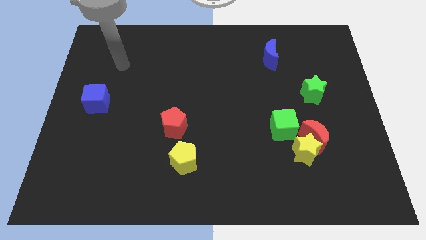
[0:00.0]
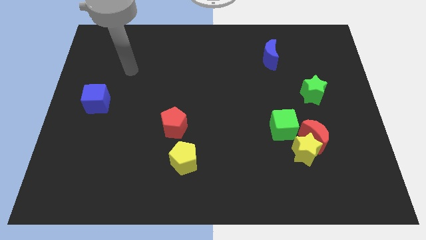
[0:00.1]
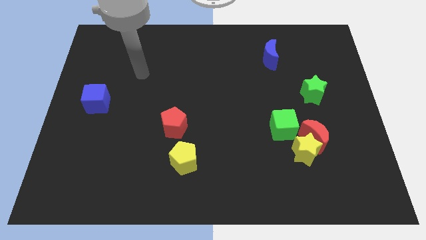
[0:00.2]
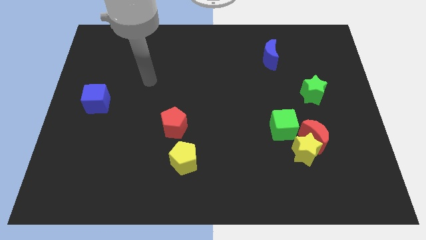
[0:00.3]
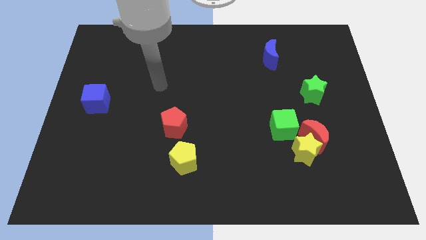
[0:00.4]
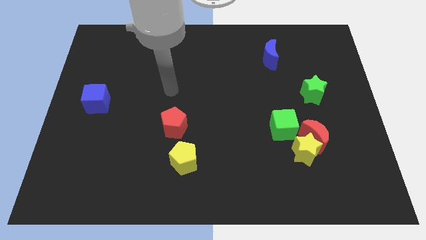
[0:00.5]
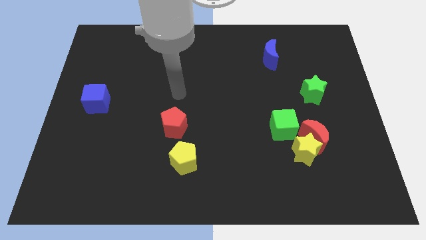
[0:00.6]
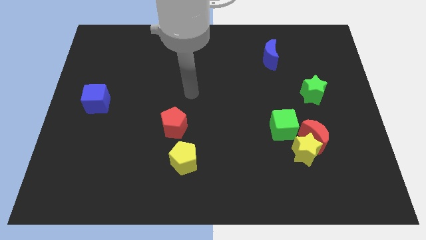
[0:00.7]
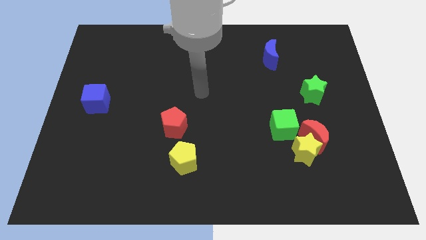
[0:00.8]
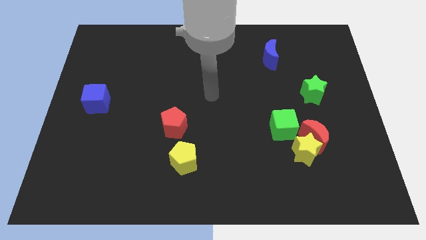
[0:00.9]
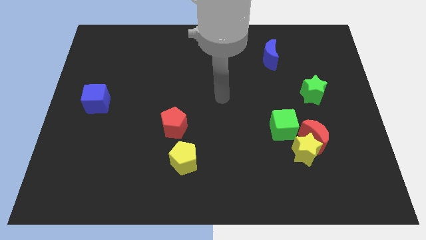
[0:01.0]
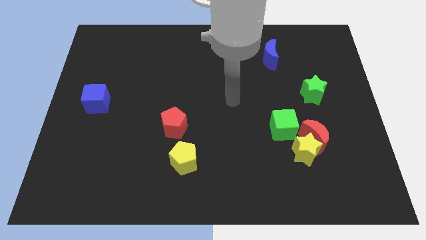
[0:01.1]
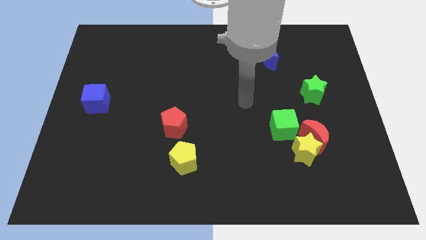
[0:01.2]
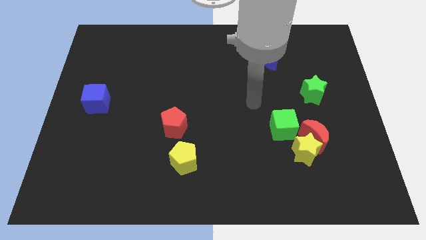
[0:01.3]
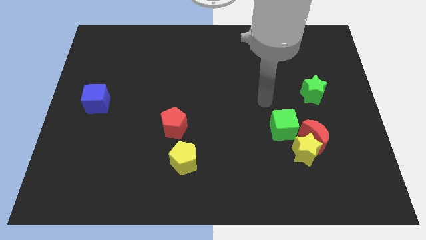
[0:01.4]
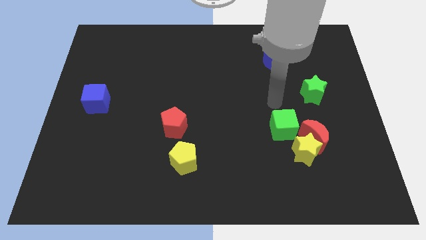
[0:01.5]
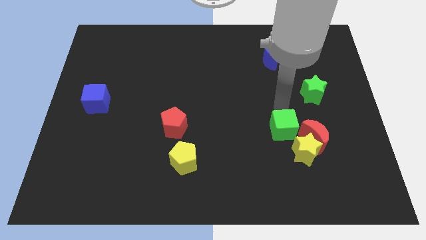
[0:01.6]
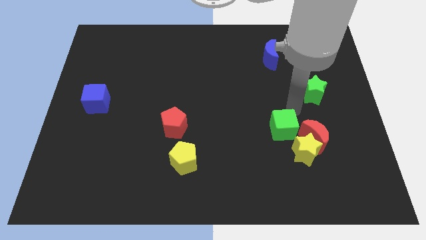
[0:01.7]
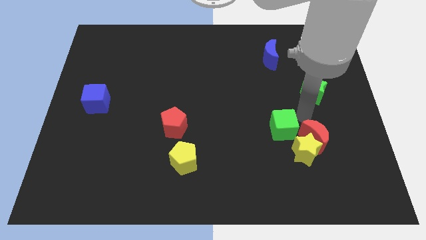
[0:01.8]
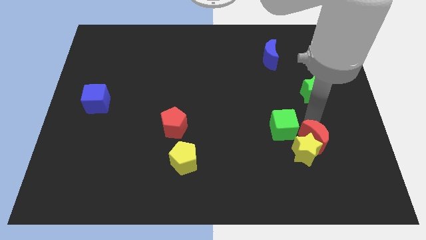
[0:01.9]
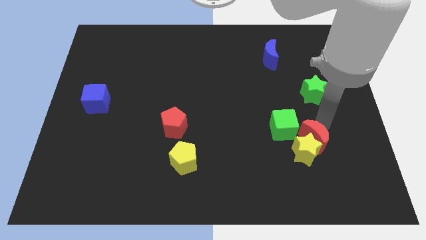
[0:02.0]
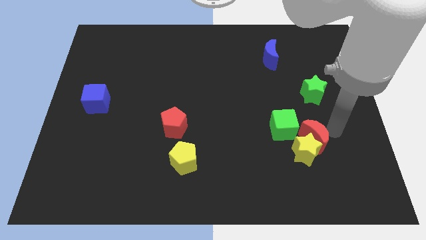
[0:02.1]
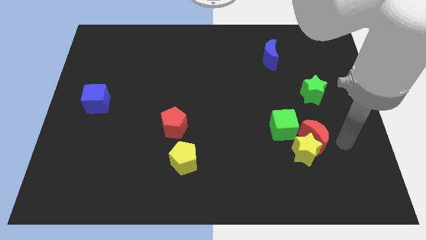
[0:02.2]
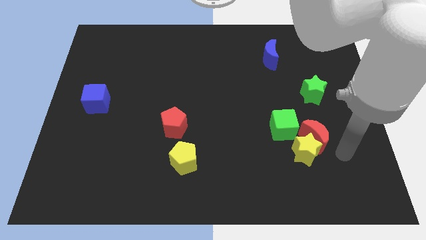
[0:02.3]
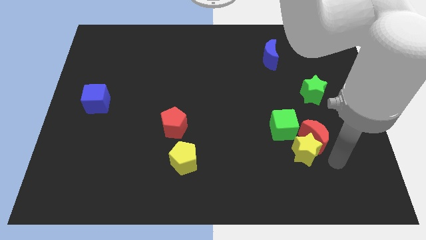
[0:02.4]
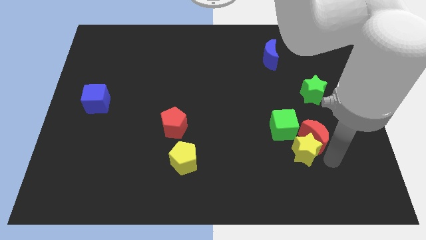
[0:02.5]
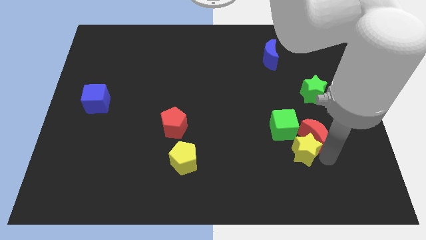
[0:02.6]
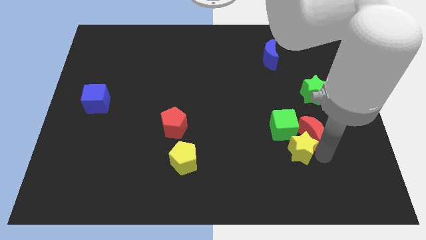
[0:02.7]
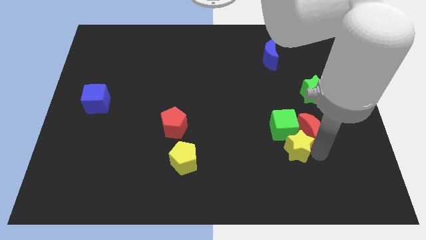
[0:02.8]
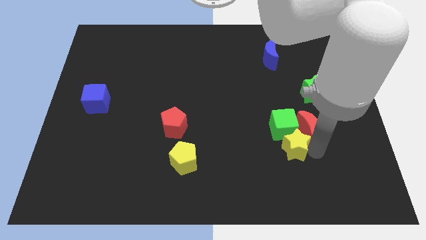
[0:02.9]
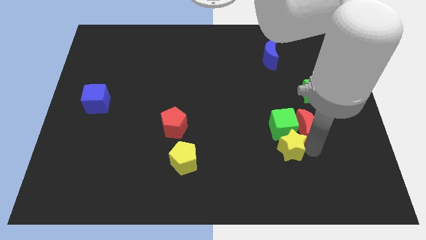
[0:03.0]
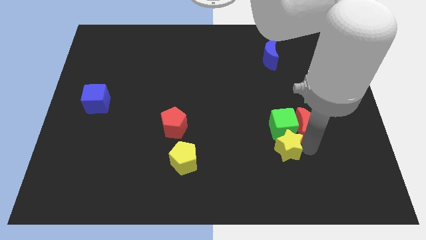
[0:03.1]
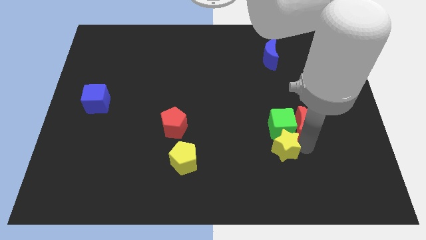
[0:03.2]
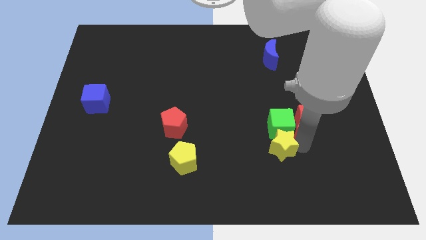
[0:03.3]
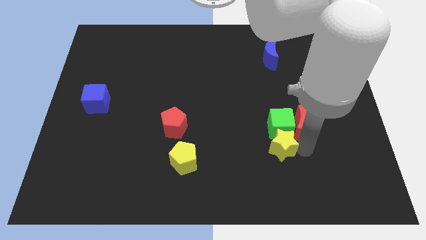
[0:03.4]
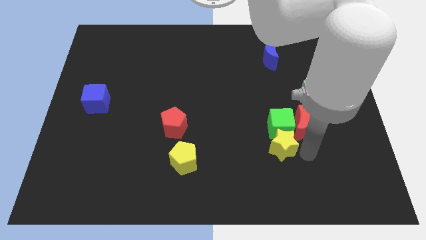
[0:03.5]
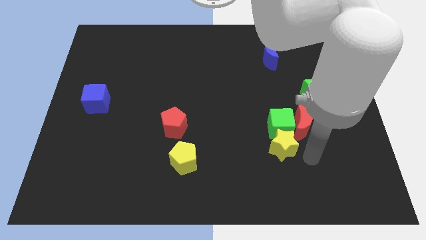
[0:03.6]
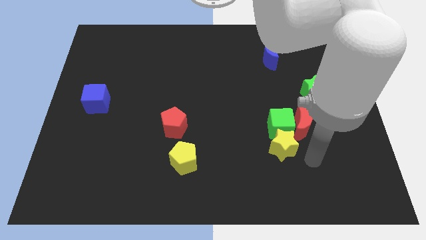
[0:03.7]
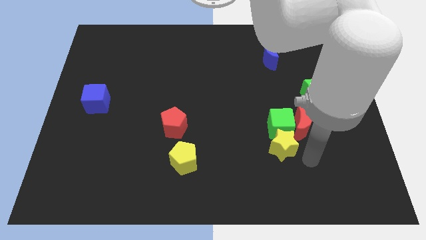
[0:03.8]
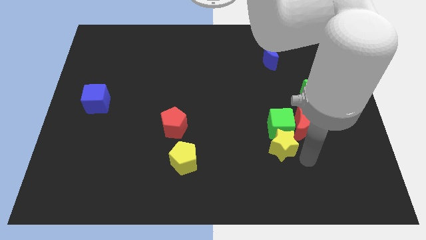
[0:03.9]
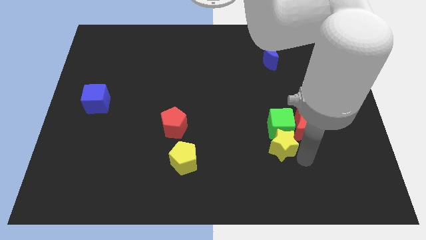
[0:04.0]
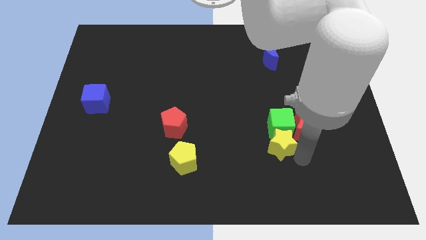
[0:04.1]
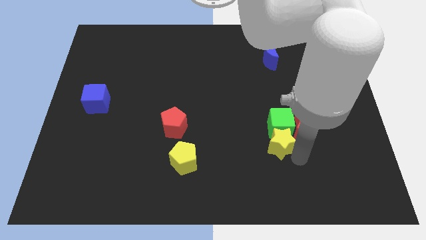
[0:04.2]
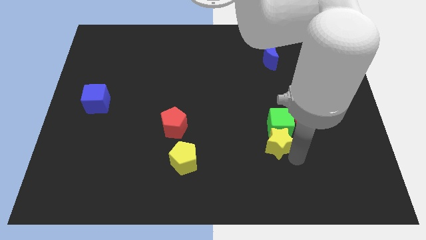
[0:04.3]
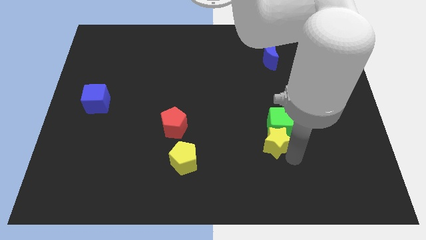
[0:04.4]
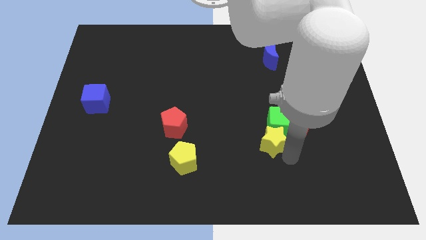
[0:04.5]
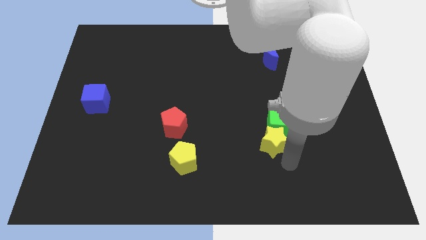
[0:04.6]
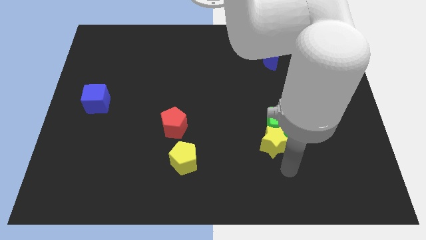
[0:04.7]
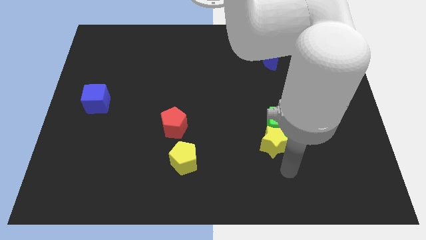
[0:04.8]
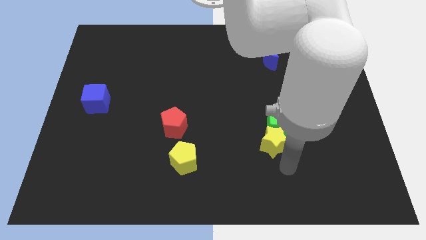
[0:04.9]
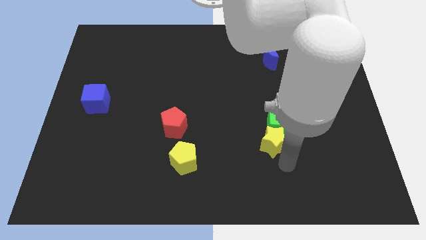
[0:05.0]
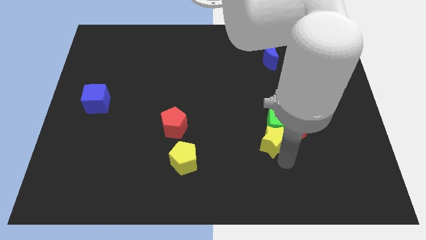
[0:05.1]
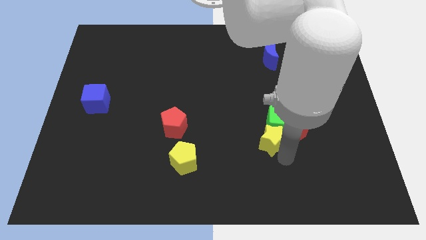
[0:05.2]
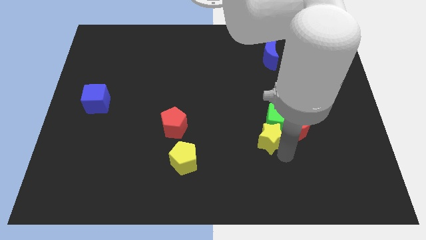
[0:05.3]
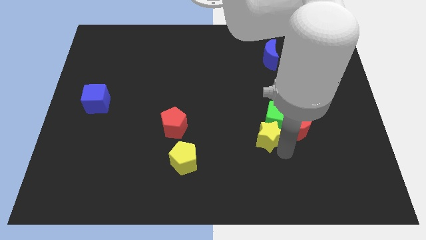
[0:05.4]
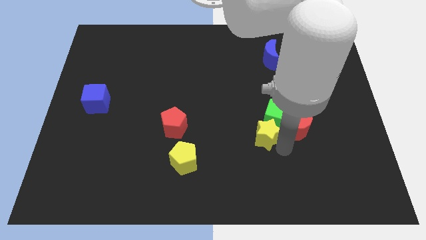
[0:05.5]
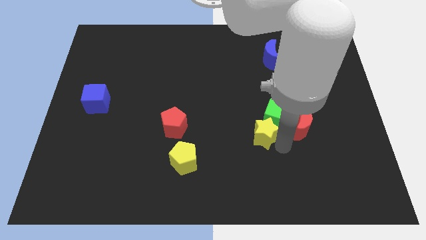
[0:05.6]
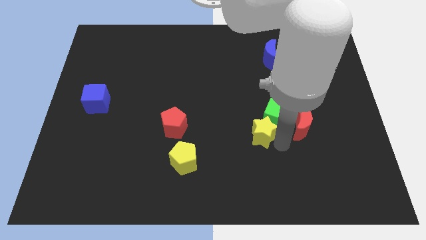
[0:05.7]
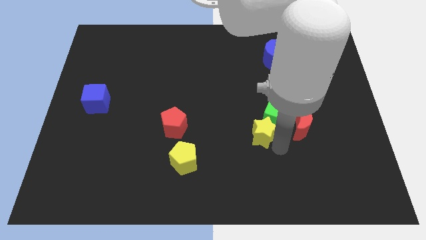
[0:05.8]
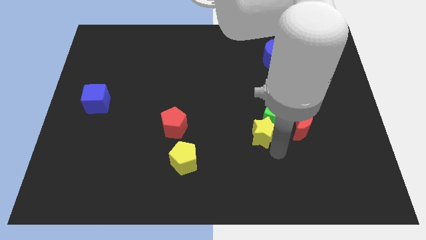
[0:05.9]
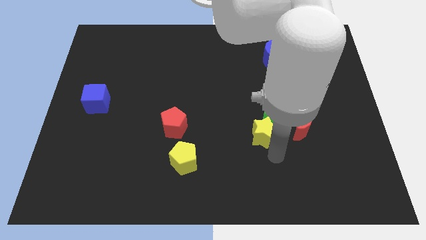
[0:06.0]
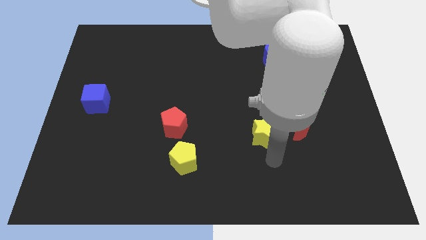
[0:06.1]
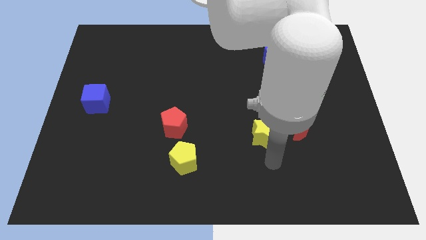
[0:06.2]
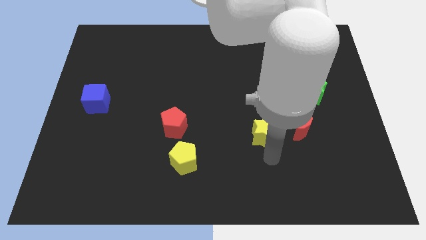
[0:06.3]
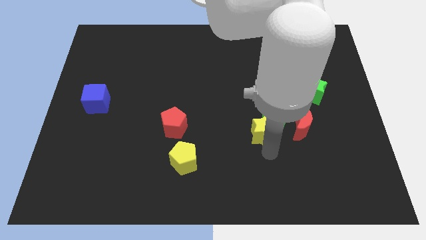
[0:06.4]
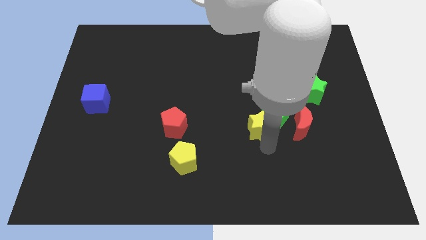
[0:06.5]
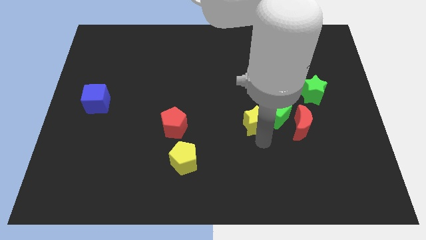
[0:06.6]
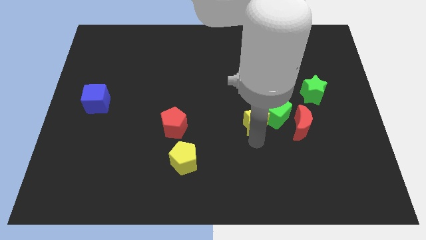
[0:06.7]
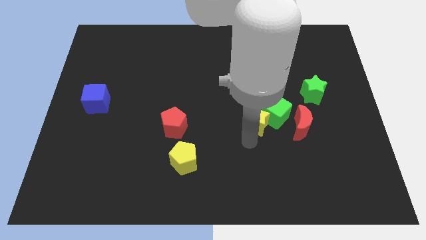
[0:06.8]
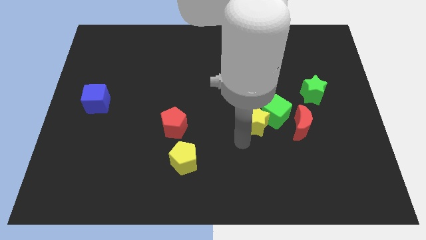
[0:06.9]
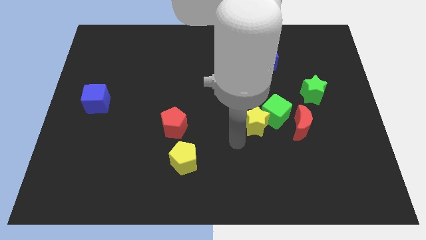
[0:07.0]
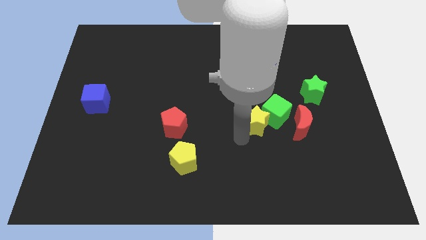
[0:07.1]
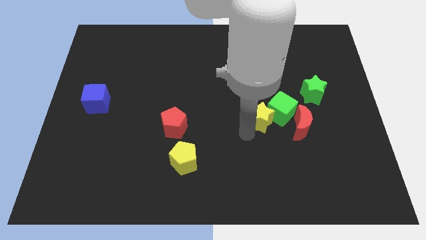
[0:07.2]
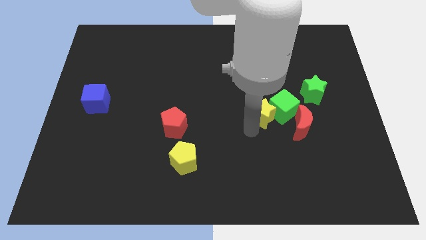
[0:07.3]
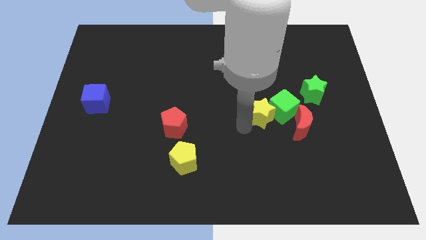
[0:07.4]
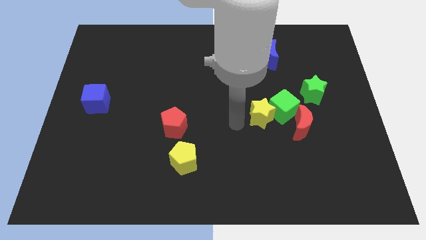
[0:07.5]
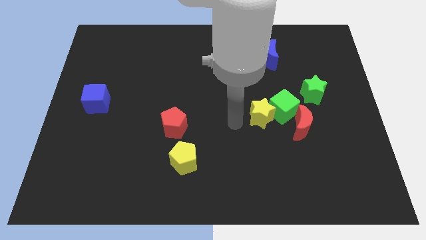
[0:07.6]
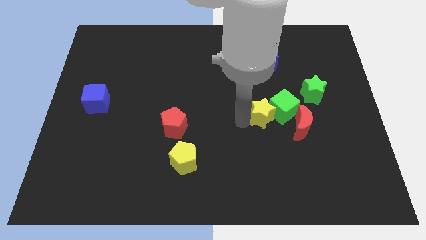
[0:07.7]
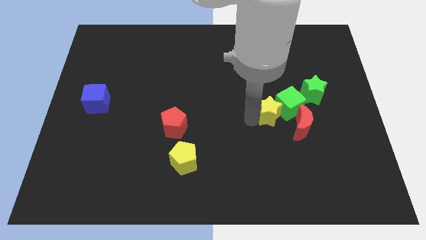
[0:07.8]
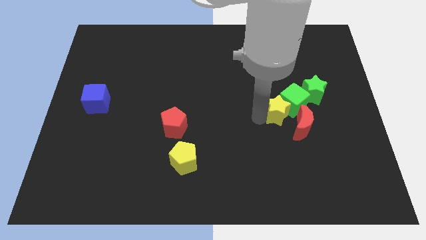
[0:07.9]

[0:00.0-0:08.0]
move the yellow star diagonally down and to the left of the green star
